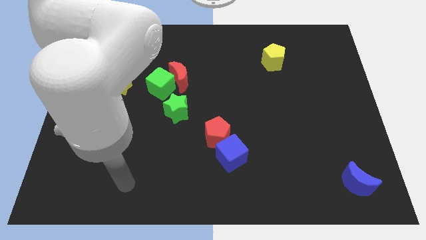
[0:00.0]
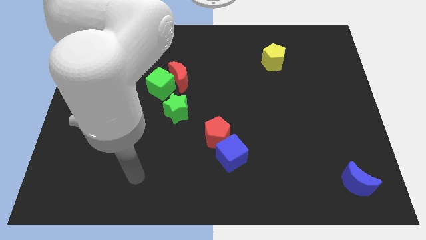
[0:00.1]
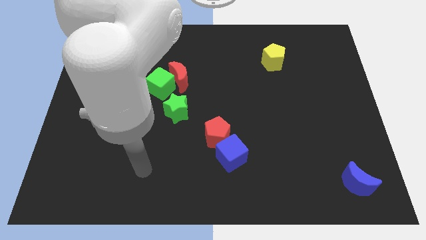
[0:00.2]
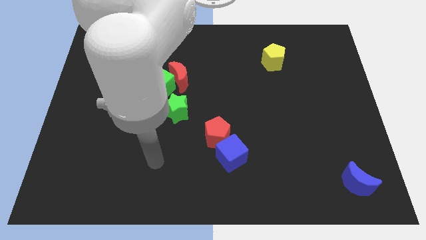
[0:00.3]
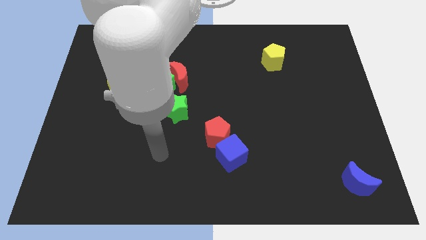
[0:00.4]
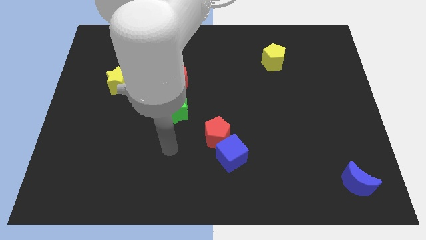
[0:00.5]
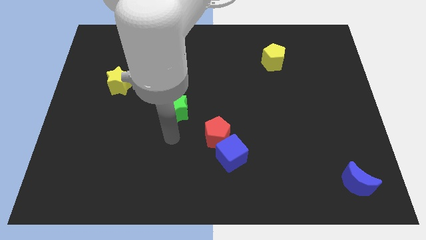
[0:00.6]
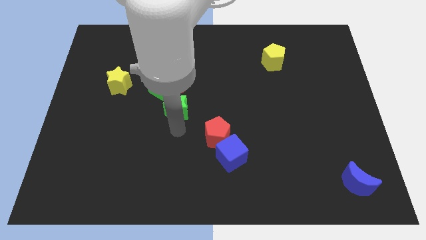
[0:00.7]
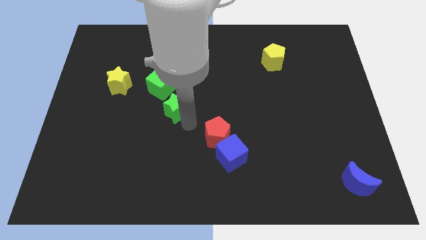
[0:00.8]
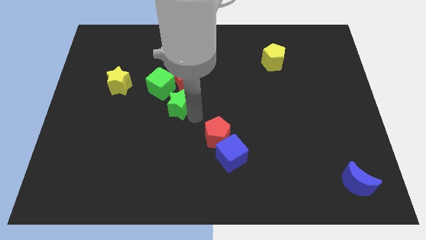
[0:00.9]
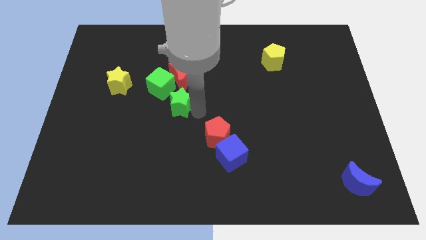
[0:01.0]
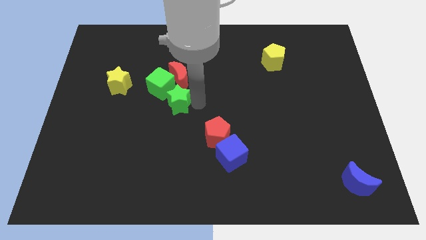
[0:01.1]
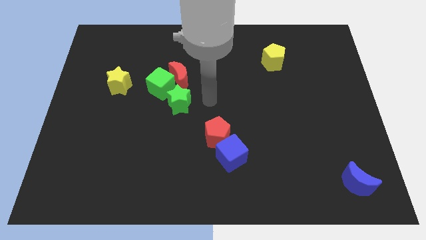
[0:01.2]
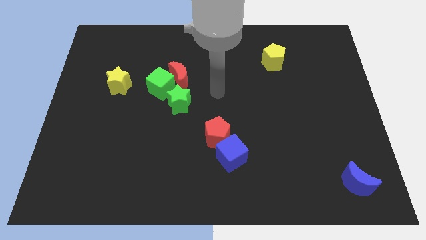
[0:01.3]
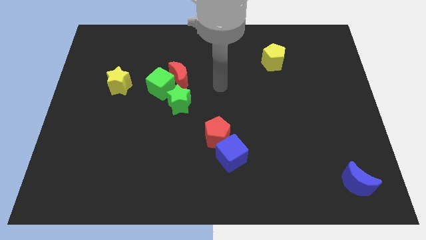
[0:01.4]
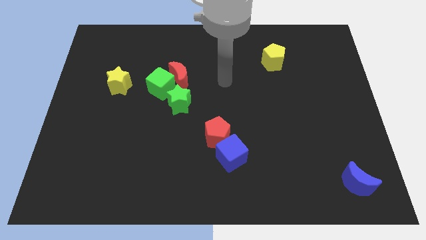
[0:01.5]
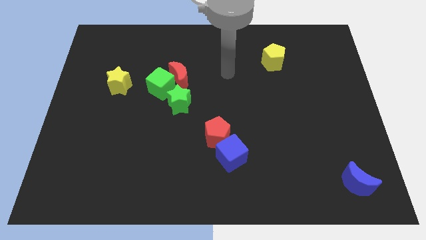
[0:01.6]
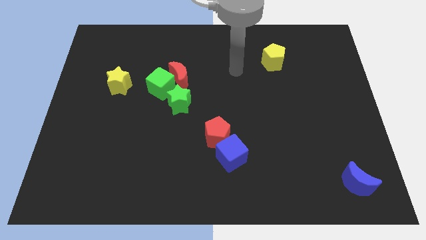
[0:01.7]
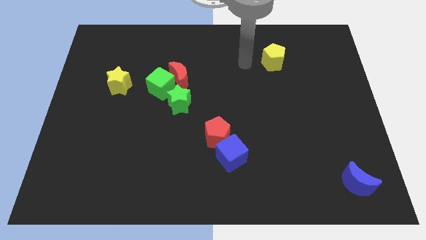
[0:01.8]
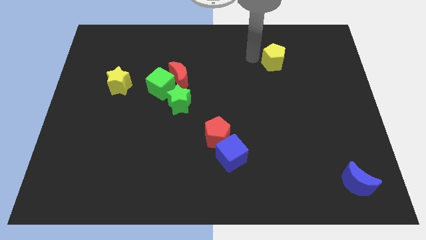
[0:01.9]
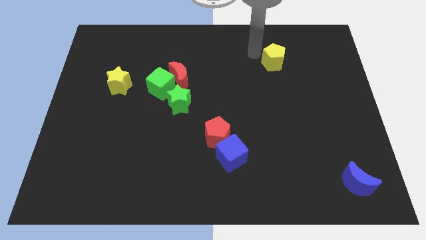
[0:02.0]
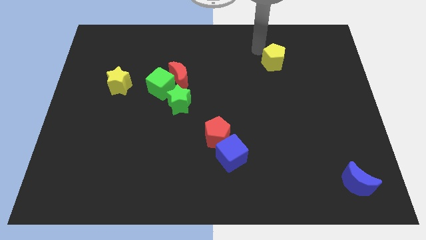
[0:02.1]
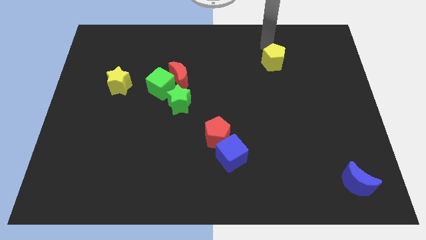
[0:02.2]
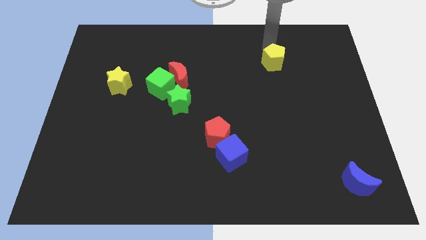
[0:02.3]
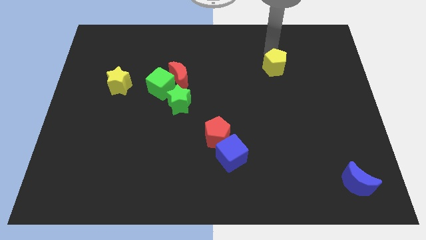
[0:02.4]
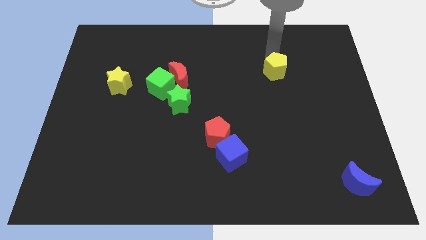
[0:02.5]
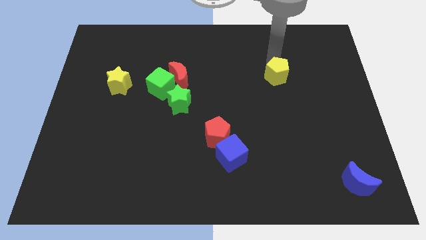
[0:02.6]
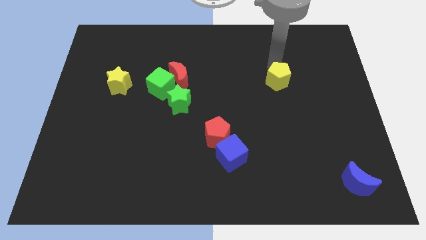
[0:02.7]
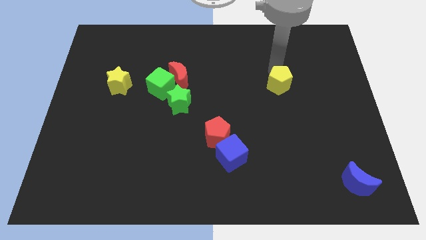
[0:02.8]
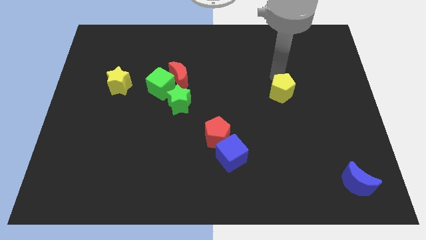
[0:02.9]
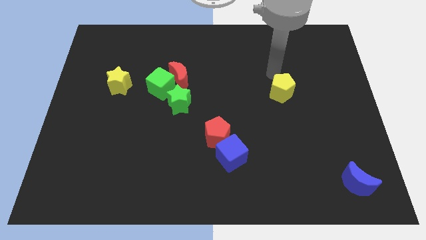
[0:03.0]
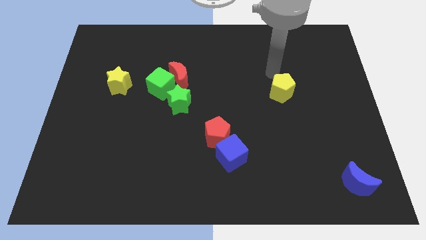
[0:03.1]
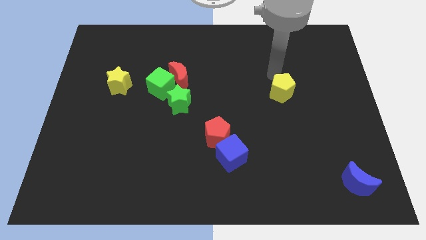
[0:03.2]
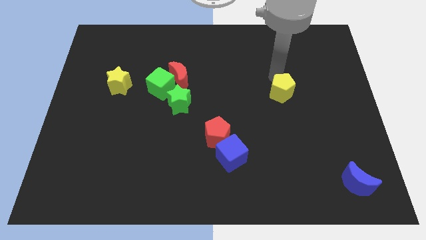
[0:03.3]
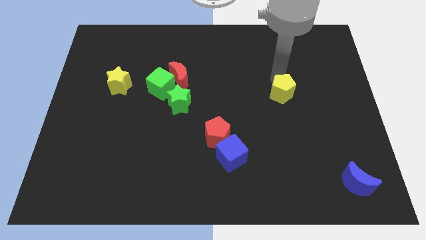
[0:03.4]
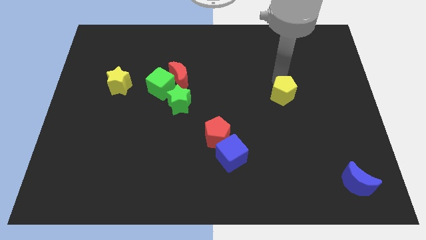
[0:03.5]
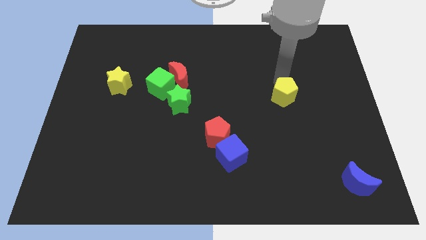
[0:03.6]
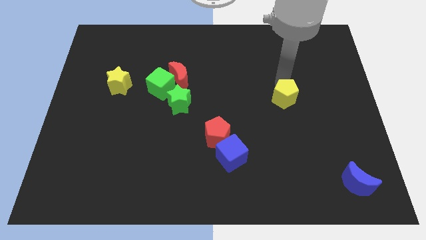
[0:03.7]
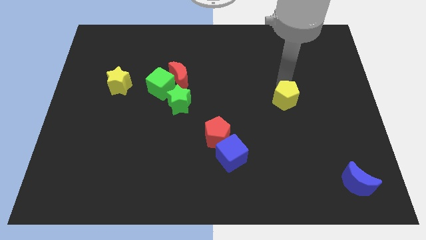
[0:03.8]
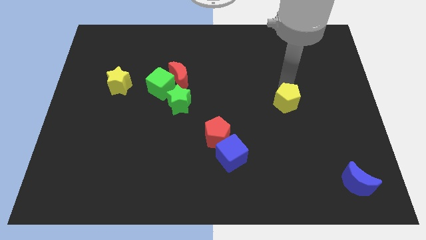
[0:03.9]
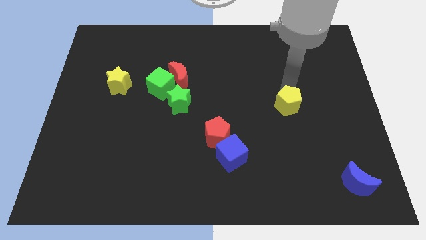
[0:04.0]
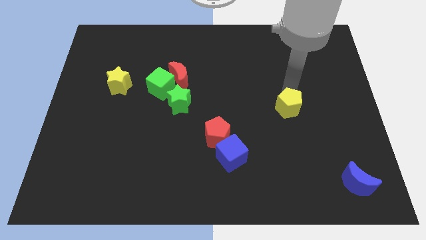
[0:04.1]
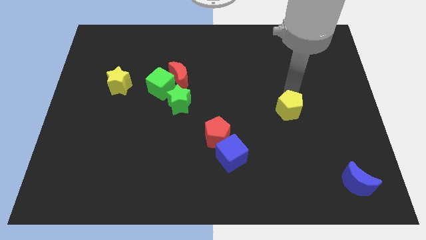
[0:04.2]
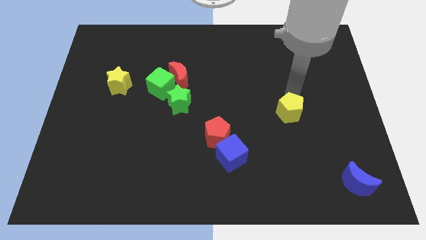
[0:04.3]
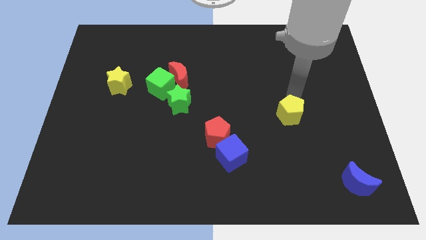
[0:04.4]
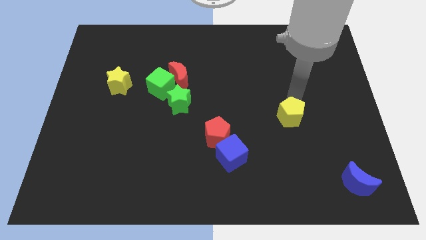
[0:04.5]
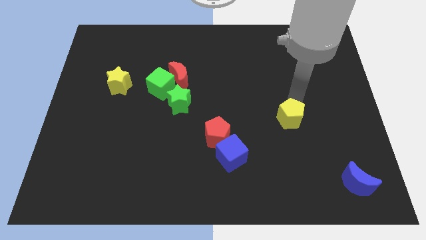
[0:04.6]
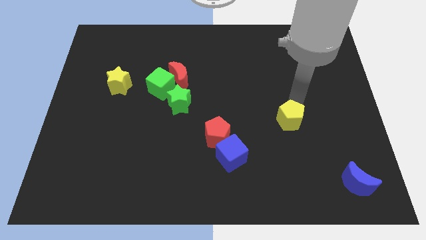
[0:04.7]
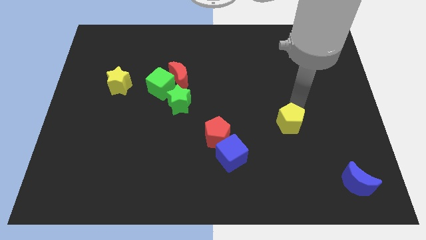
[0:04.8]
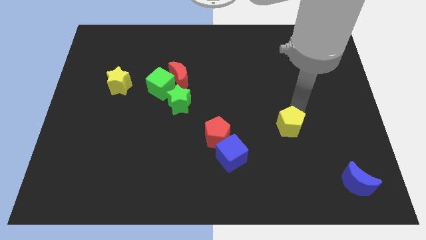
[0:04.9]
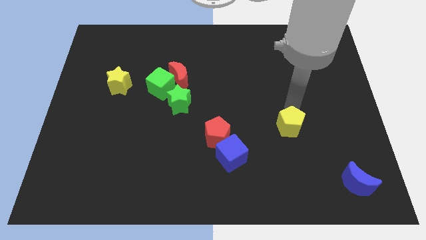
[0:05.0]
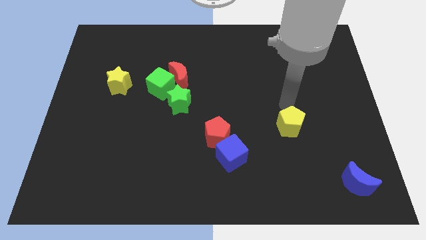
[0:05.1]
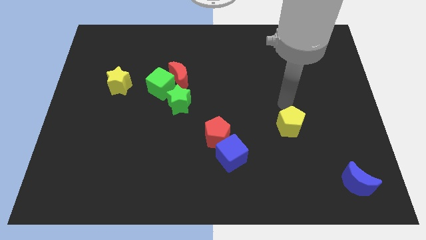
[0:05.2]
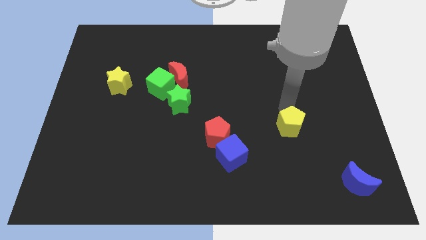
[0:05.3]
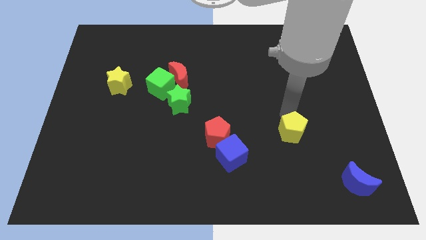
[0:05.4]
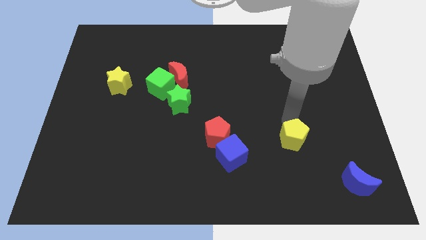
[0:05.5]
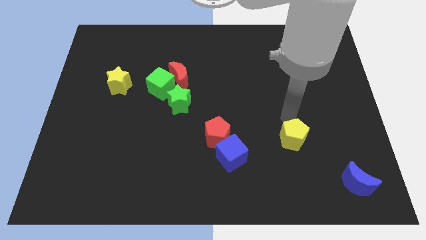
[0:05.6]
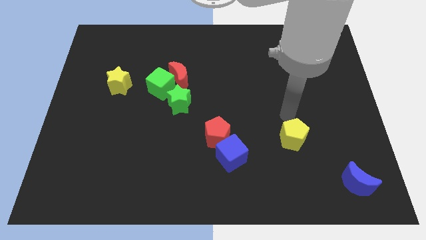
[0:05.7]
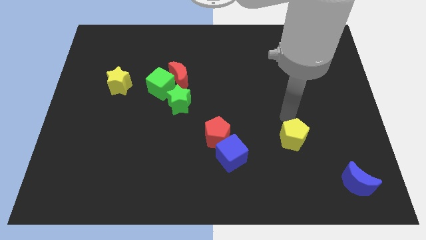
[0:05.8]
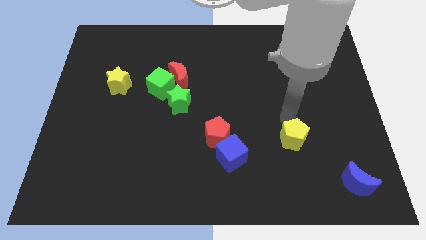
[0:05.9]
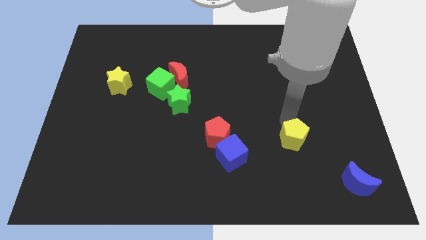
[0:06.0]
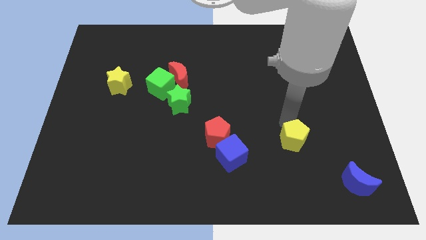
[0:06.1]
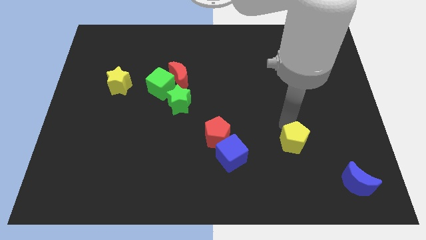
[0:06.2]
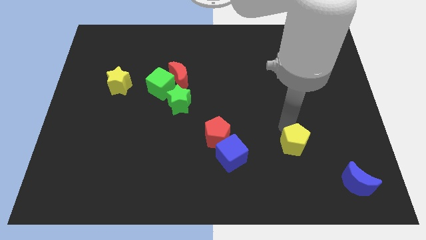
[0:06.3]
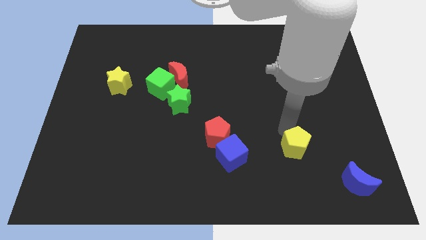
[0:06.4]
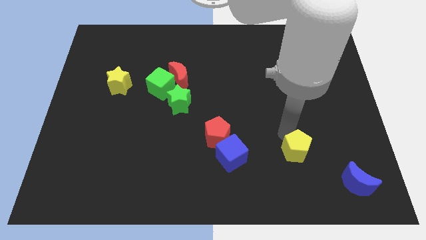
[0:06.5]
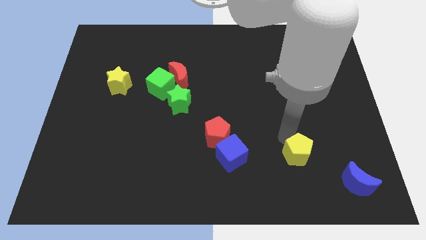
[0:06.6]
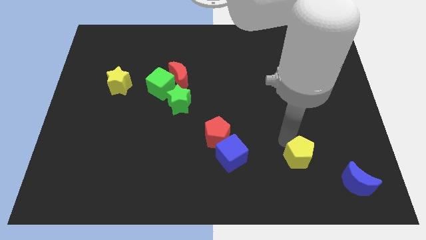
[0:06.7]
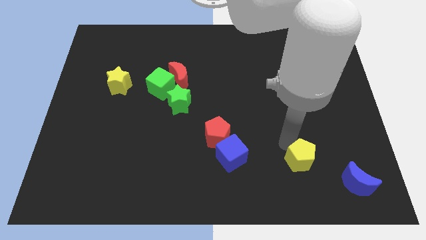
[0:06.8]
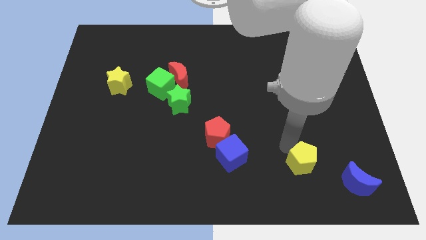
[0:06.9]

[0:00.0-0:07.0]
slide the yellow pentagon left of the blue moon
